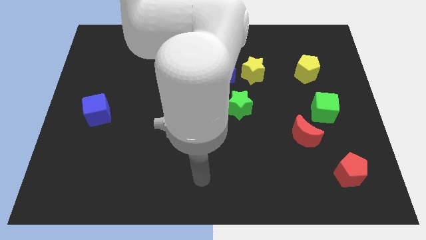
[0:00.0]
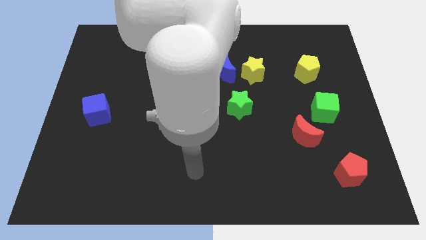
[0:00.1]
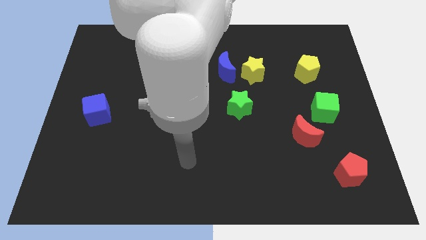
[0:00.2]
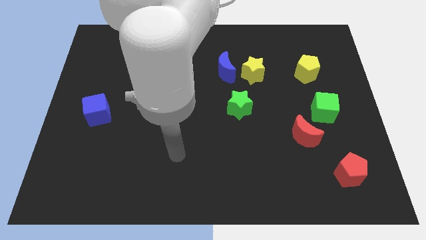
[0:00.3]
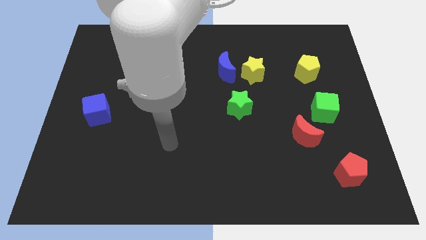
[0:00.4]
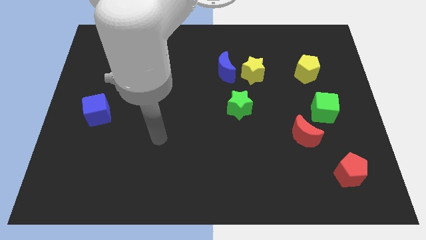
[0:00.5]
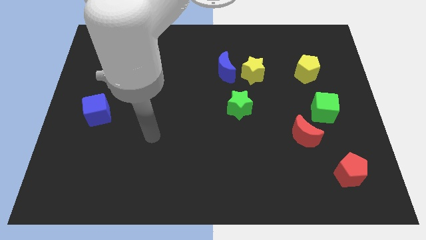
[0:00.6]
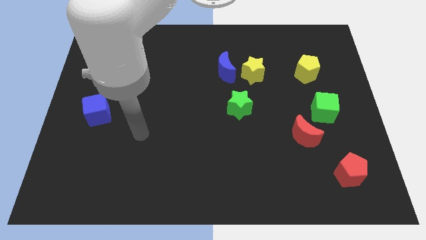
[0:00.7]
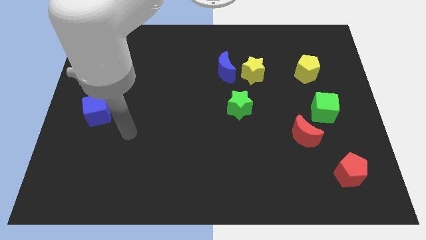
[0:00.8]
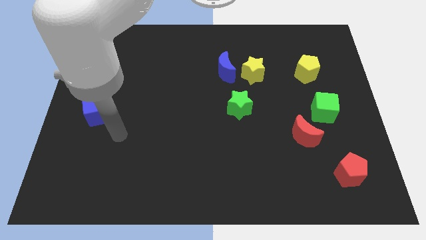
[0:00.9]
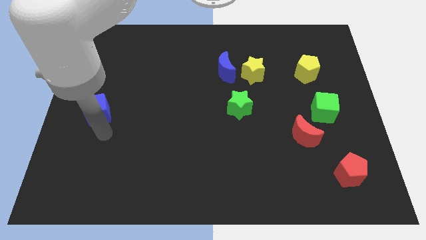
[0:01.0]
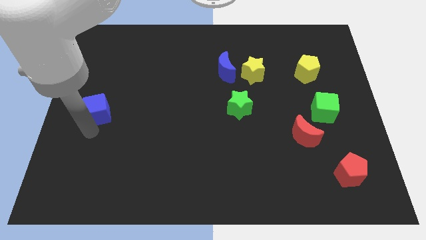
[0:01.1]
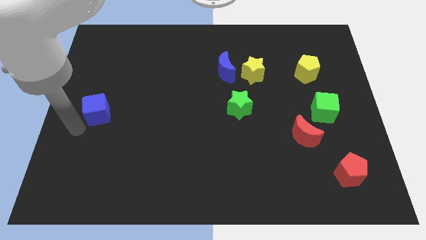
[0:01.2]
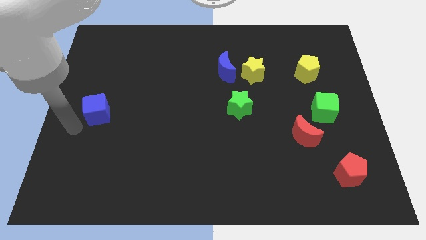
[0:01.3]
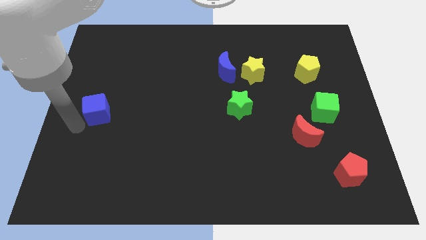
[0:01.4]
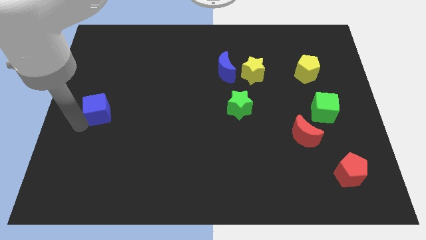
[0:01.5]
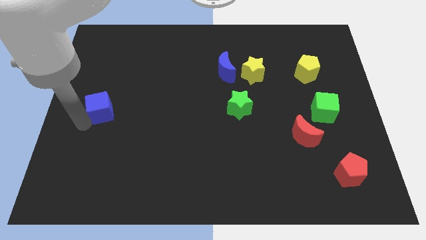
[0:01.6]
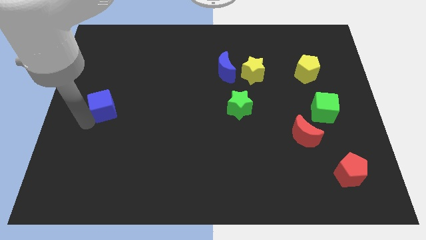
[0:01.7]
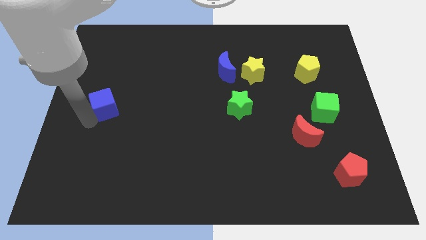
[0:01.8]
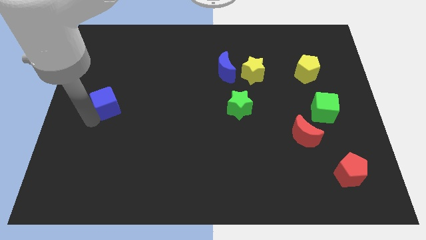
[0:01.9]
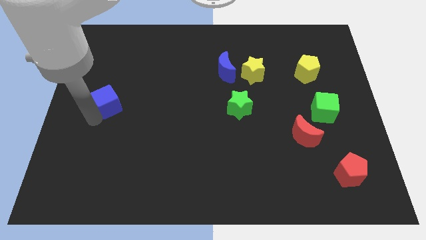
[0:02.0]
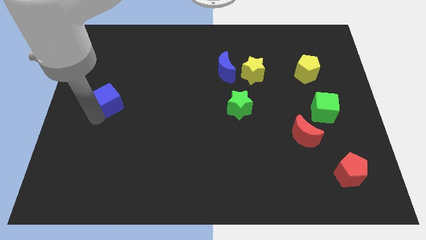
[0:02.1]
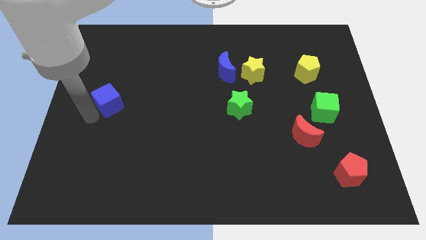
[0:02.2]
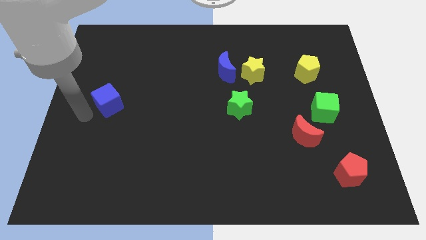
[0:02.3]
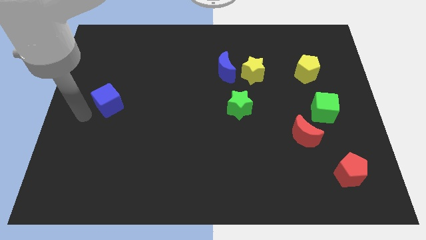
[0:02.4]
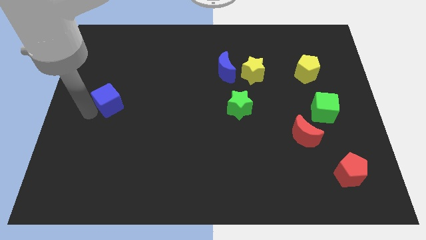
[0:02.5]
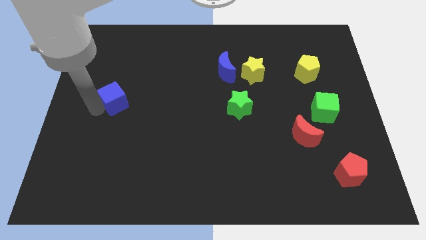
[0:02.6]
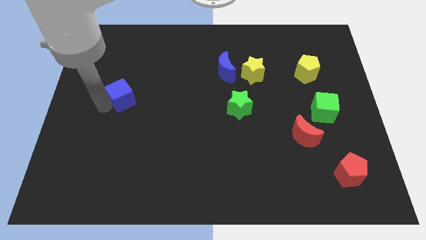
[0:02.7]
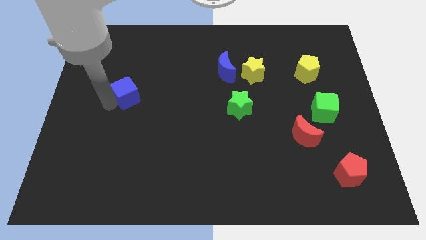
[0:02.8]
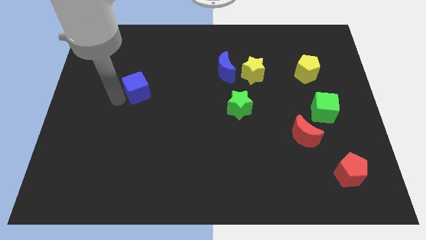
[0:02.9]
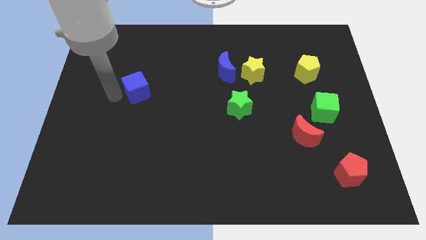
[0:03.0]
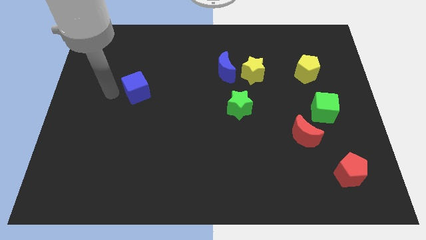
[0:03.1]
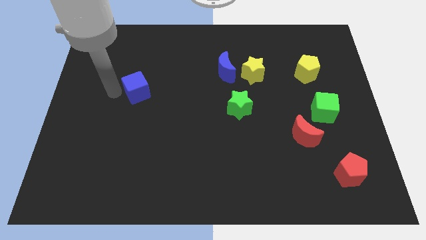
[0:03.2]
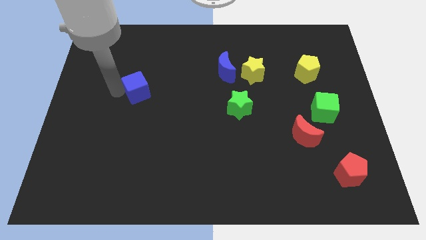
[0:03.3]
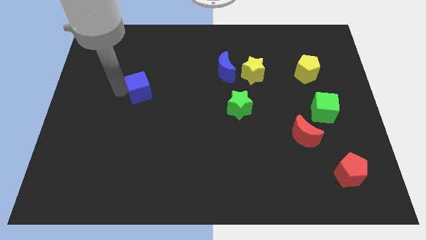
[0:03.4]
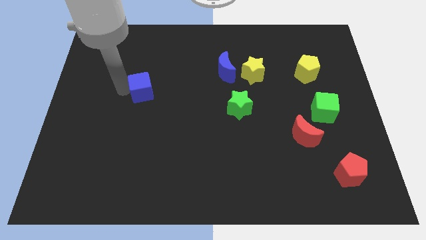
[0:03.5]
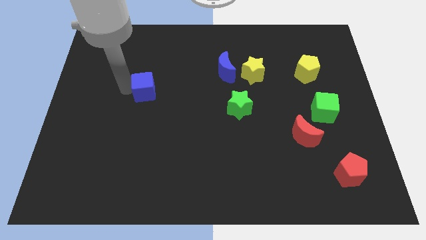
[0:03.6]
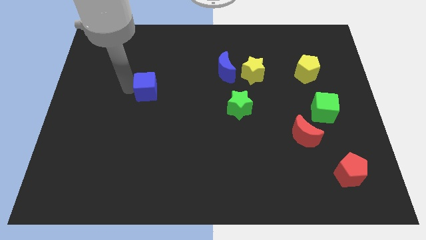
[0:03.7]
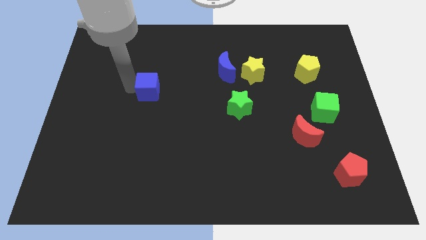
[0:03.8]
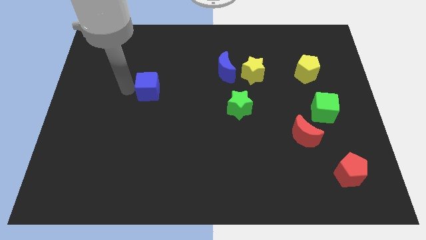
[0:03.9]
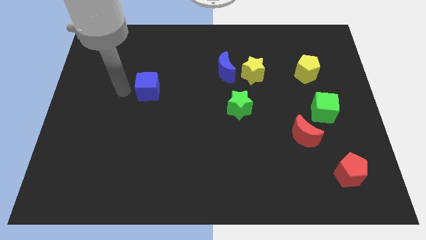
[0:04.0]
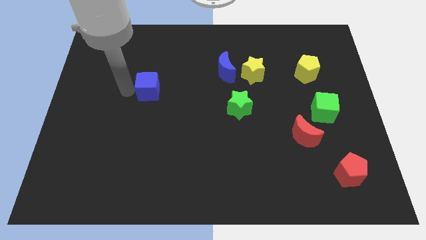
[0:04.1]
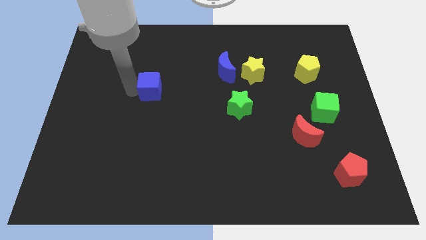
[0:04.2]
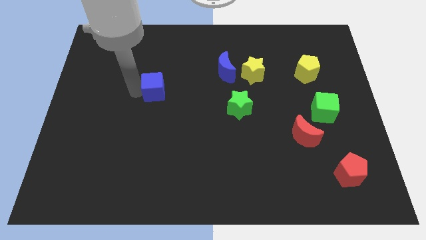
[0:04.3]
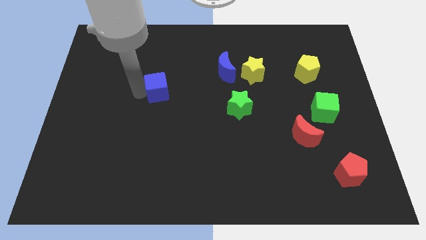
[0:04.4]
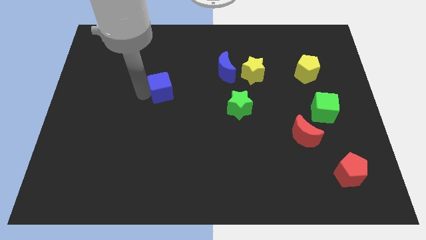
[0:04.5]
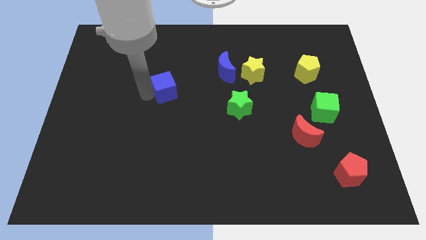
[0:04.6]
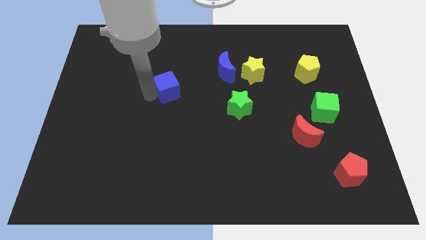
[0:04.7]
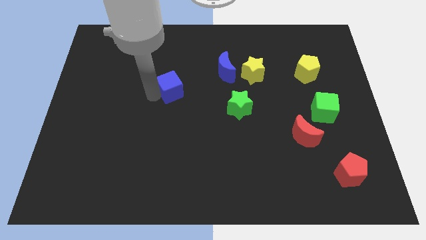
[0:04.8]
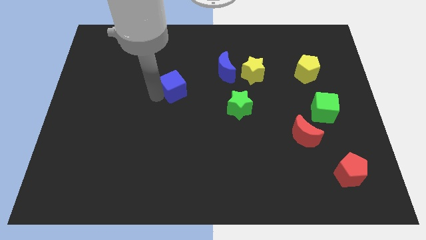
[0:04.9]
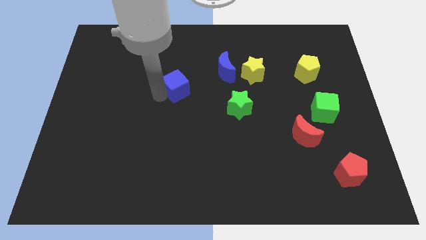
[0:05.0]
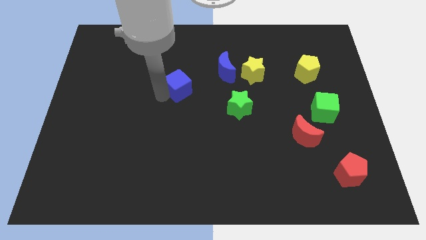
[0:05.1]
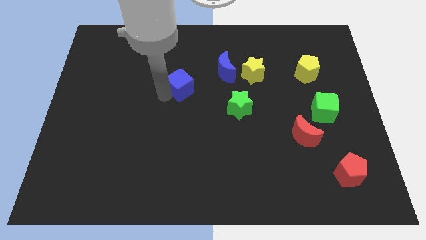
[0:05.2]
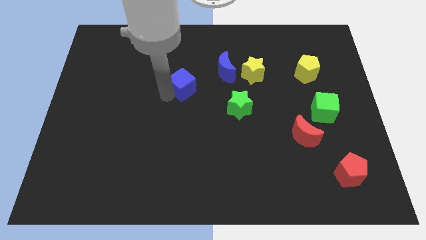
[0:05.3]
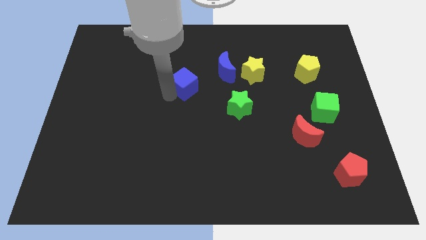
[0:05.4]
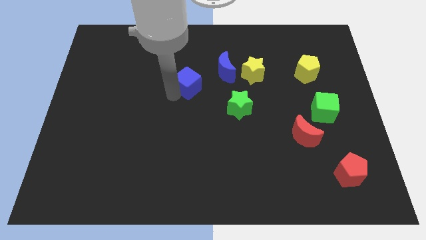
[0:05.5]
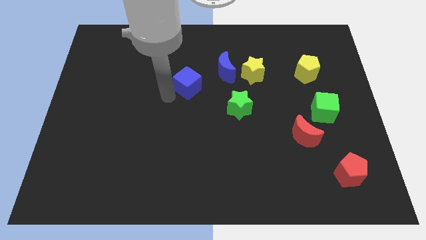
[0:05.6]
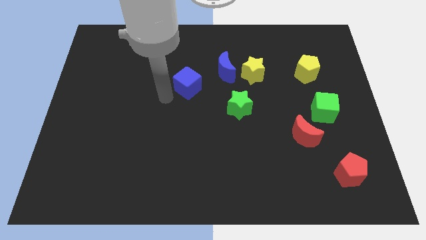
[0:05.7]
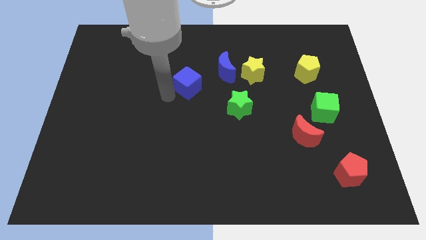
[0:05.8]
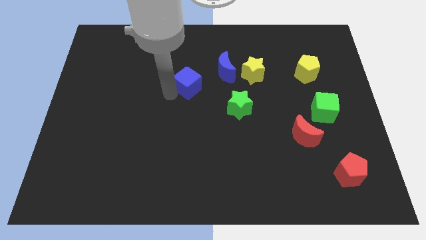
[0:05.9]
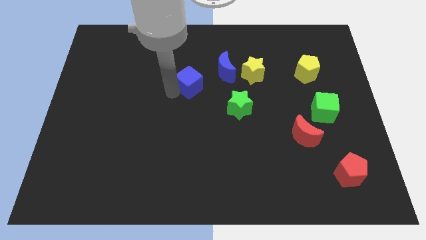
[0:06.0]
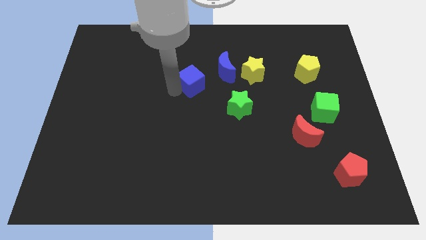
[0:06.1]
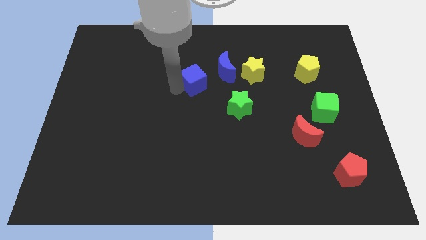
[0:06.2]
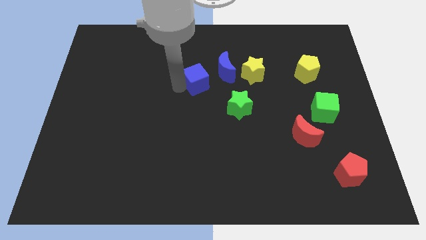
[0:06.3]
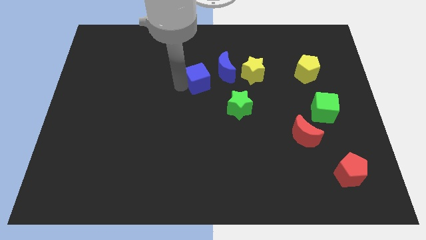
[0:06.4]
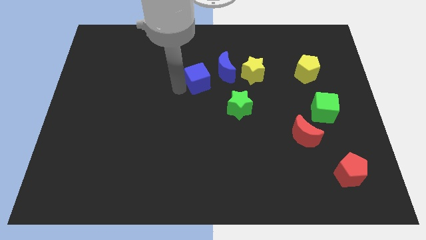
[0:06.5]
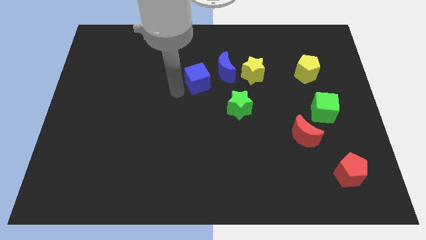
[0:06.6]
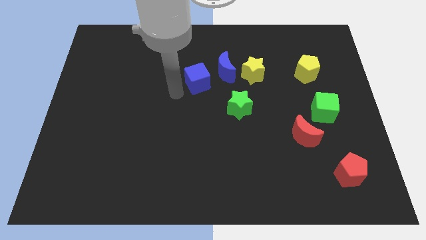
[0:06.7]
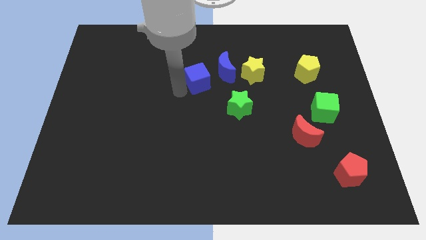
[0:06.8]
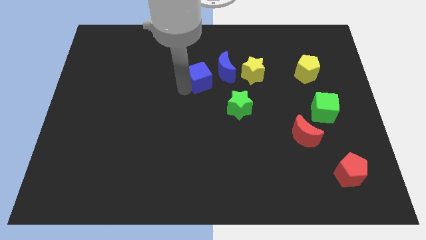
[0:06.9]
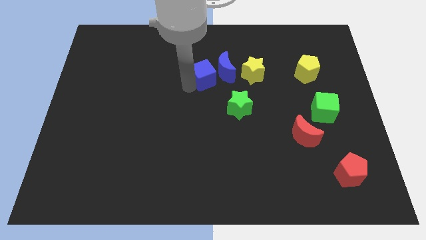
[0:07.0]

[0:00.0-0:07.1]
move the blue cube next to the blue moon

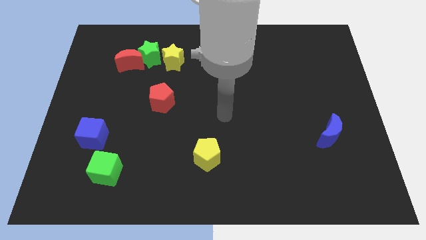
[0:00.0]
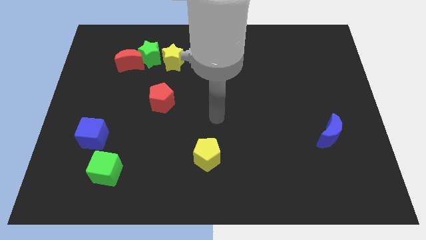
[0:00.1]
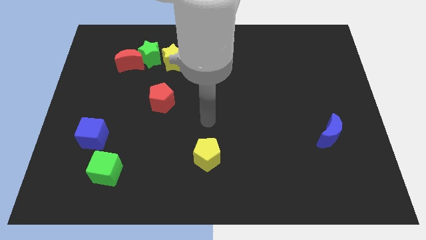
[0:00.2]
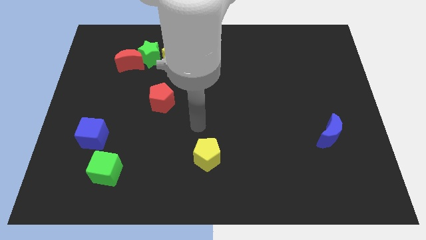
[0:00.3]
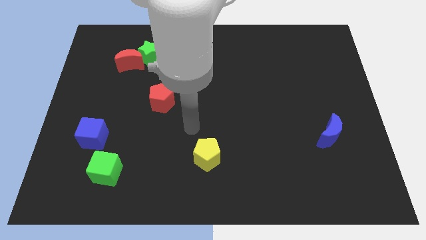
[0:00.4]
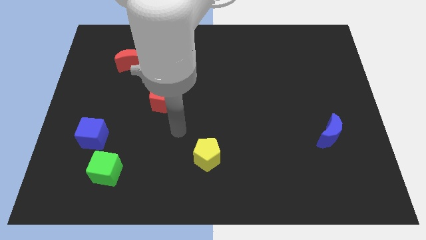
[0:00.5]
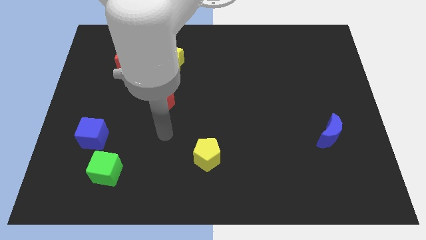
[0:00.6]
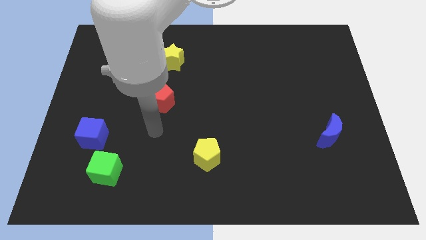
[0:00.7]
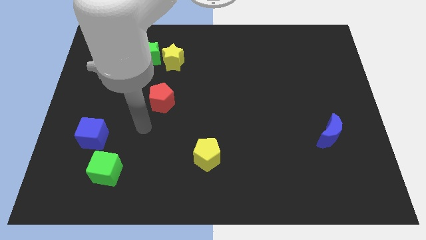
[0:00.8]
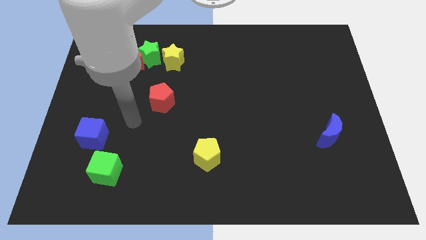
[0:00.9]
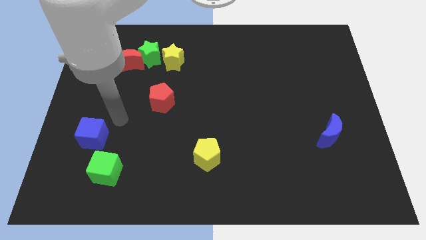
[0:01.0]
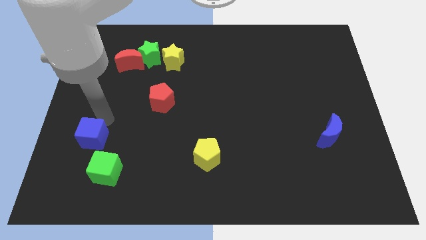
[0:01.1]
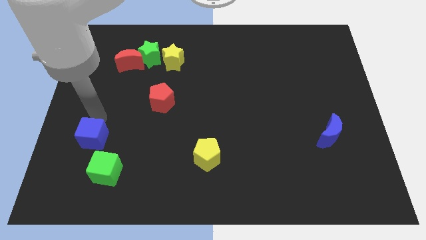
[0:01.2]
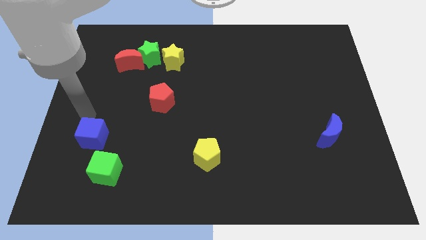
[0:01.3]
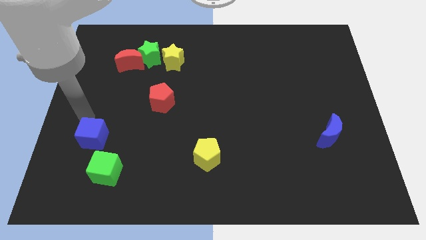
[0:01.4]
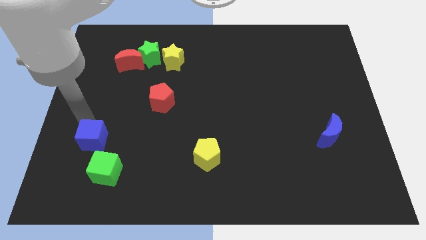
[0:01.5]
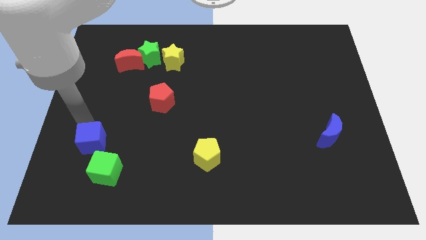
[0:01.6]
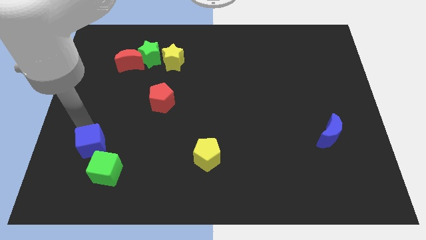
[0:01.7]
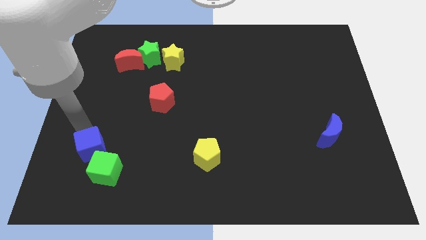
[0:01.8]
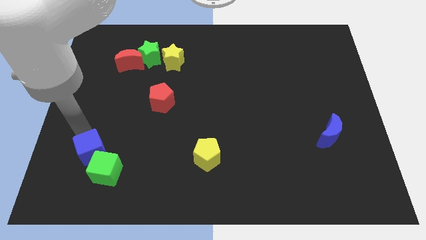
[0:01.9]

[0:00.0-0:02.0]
push the blue cube next to the green cube
